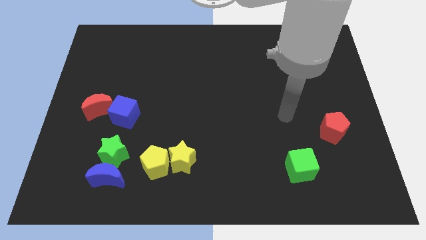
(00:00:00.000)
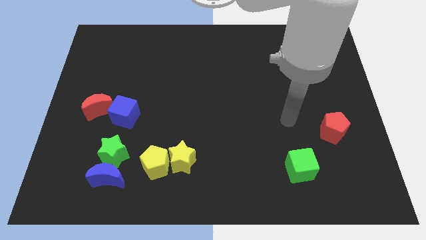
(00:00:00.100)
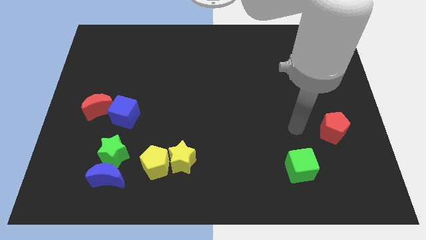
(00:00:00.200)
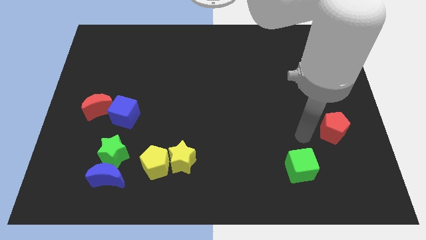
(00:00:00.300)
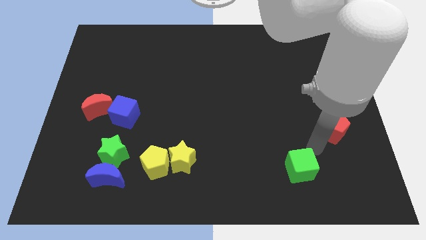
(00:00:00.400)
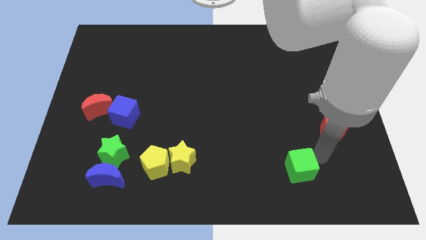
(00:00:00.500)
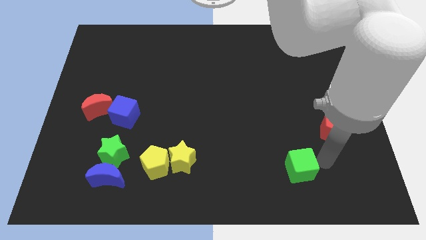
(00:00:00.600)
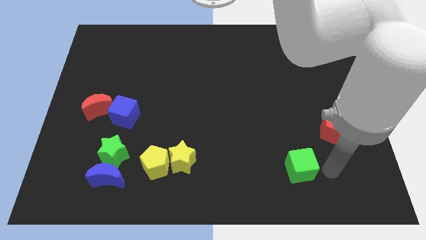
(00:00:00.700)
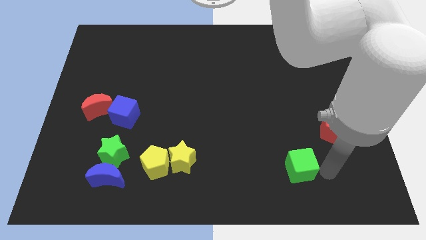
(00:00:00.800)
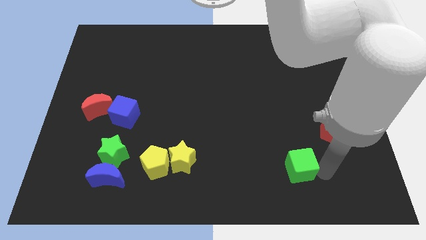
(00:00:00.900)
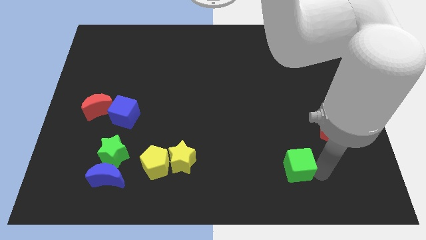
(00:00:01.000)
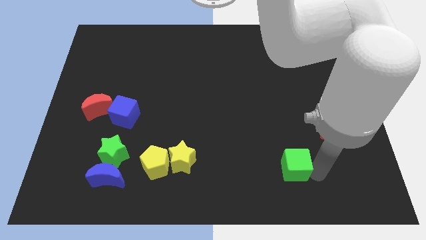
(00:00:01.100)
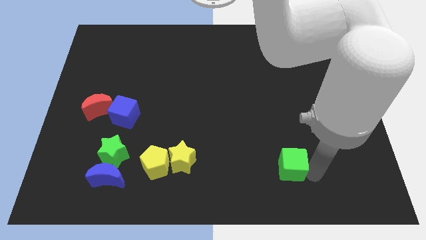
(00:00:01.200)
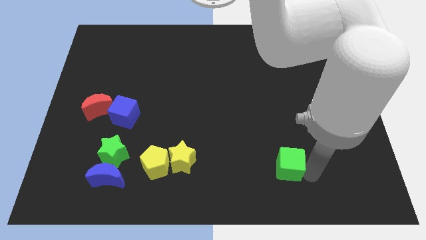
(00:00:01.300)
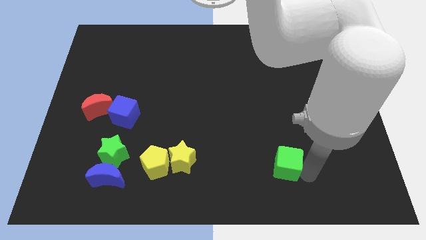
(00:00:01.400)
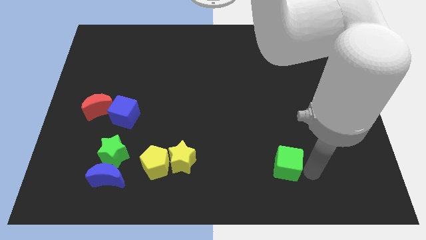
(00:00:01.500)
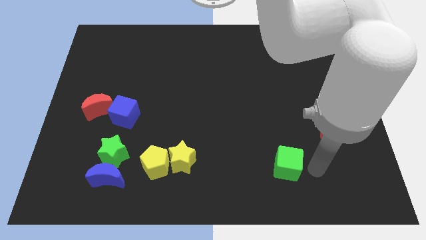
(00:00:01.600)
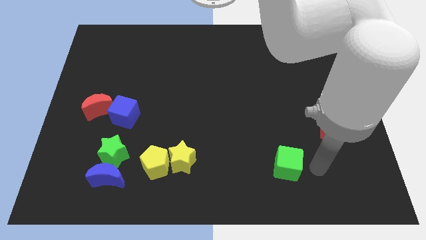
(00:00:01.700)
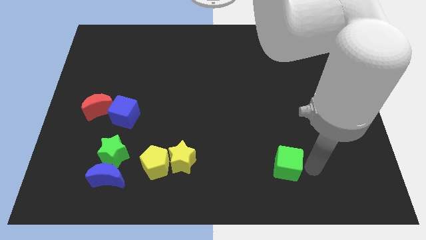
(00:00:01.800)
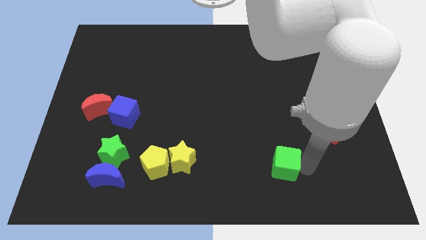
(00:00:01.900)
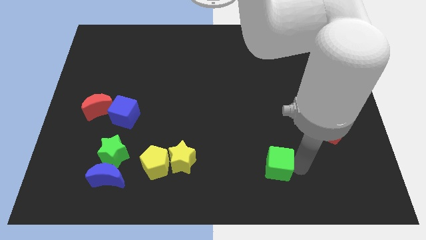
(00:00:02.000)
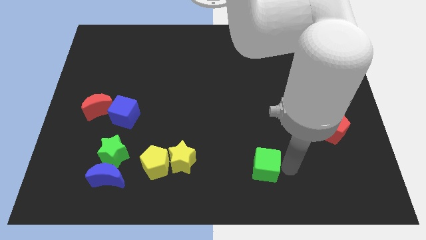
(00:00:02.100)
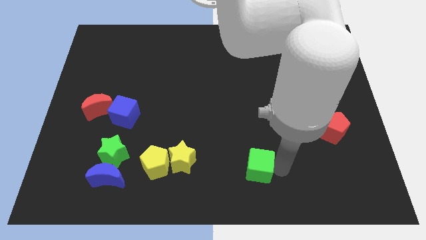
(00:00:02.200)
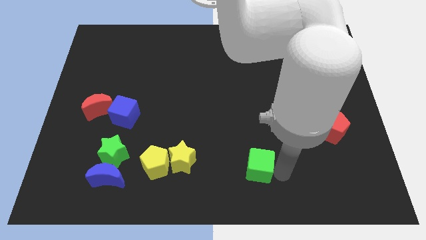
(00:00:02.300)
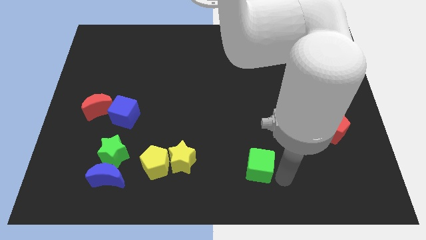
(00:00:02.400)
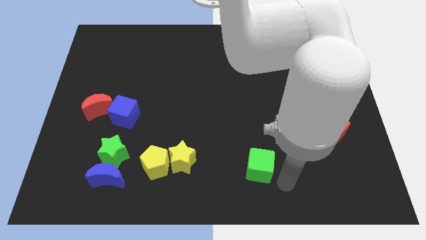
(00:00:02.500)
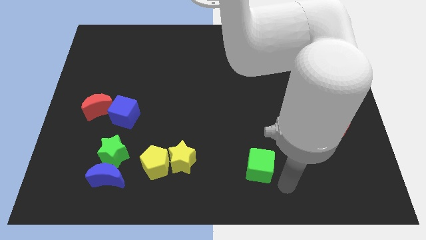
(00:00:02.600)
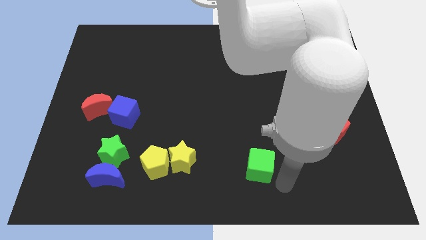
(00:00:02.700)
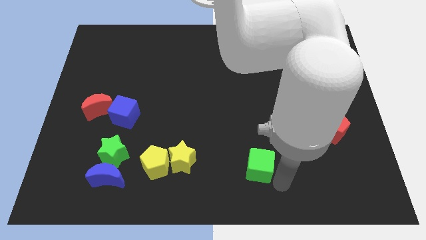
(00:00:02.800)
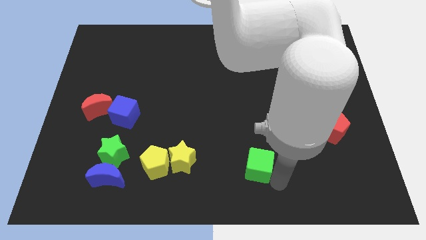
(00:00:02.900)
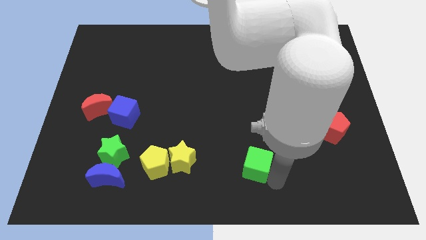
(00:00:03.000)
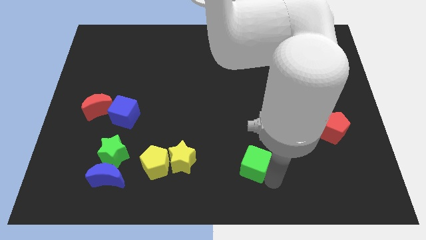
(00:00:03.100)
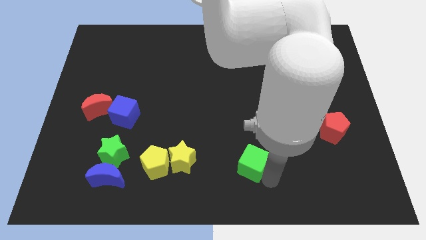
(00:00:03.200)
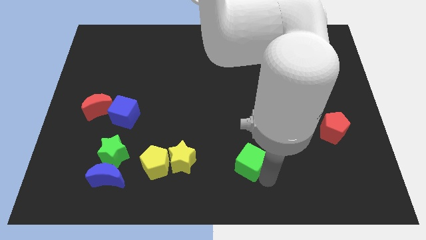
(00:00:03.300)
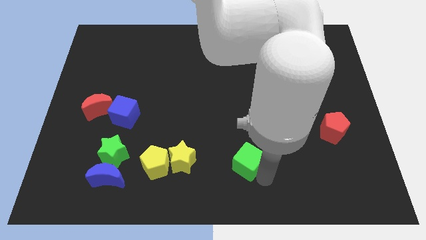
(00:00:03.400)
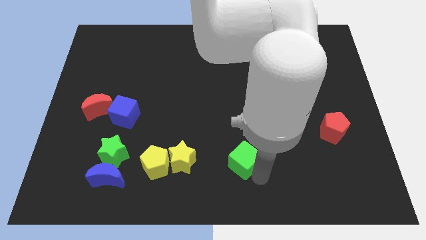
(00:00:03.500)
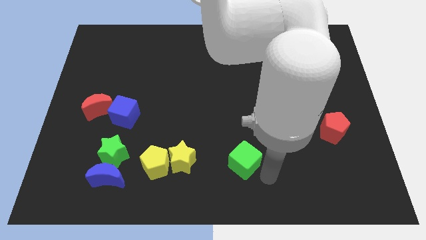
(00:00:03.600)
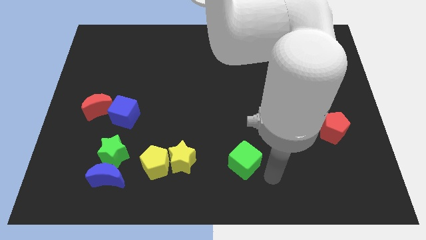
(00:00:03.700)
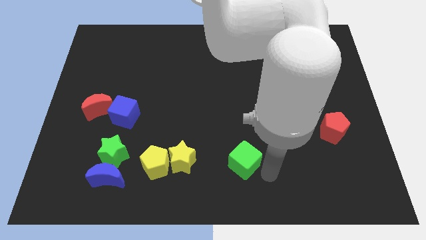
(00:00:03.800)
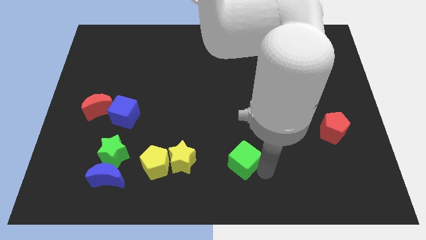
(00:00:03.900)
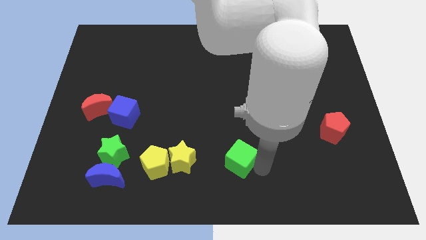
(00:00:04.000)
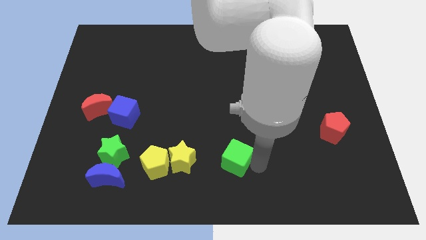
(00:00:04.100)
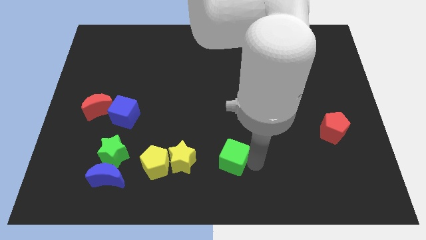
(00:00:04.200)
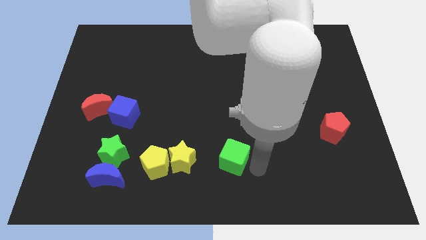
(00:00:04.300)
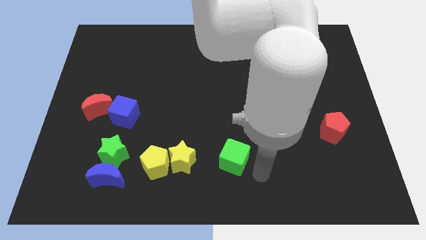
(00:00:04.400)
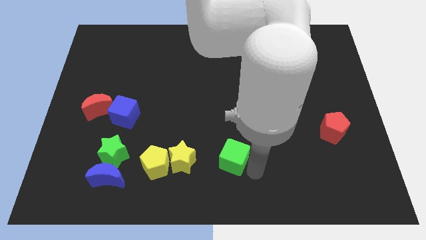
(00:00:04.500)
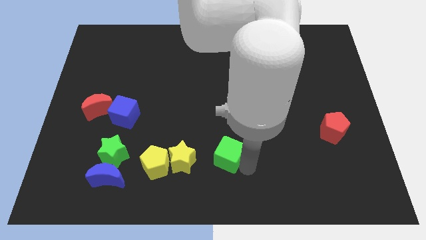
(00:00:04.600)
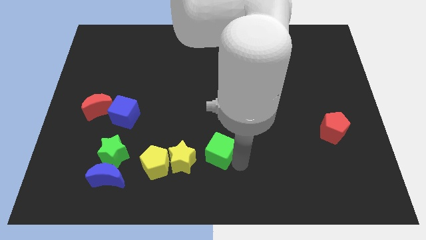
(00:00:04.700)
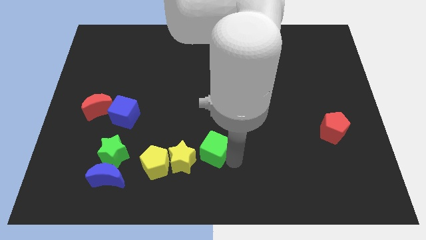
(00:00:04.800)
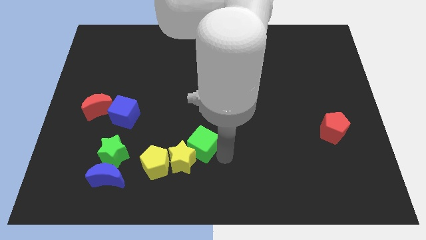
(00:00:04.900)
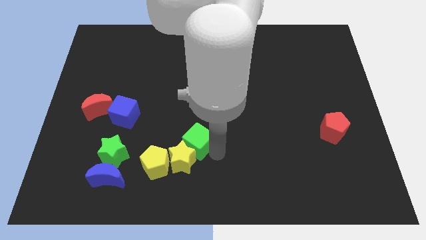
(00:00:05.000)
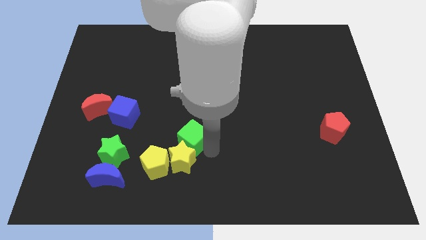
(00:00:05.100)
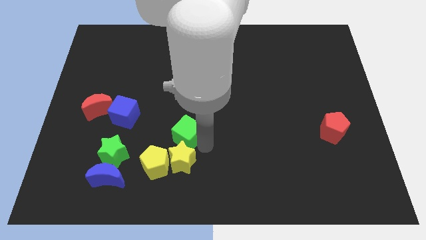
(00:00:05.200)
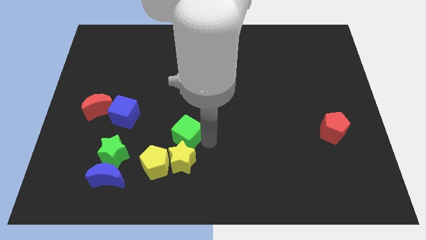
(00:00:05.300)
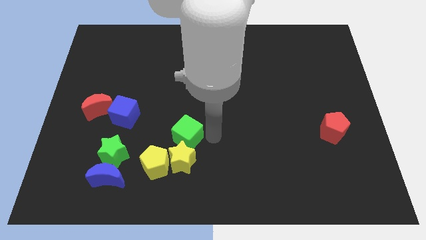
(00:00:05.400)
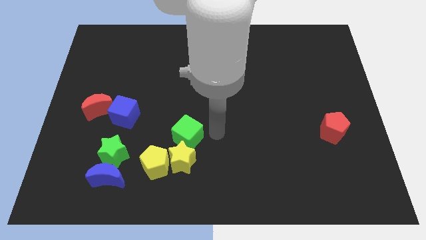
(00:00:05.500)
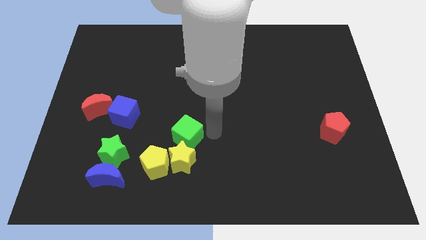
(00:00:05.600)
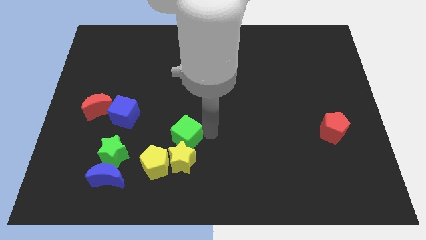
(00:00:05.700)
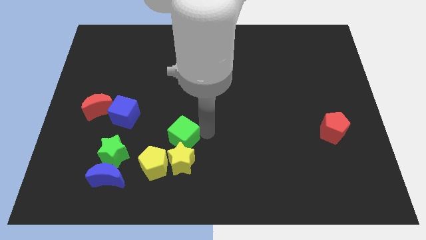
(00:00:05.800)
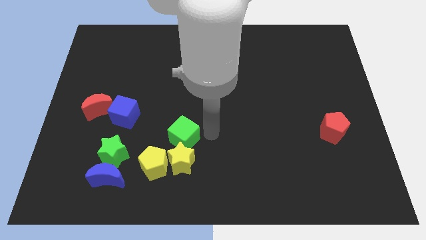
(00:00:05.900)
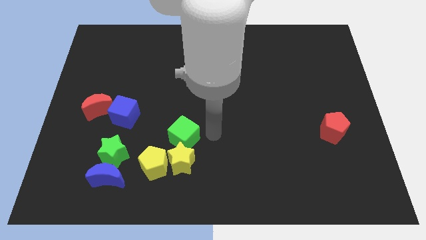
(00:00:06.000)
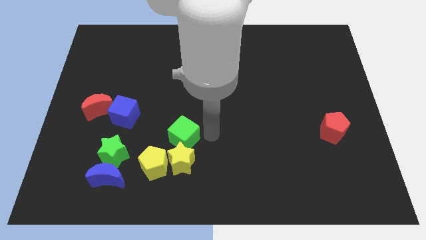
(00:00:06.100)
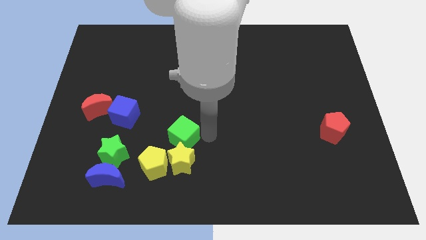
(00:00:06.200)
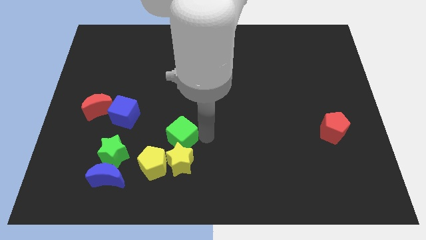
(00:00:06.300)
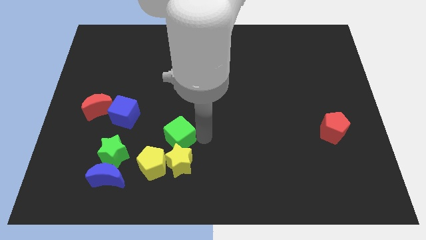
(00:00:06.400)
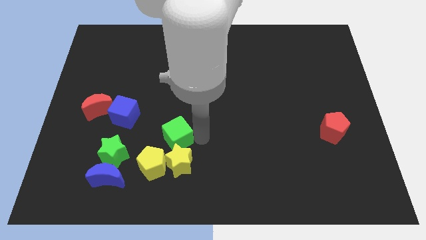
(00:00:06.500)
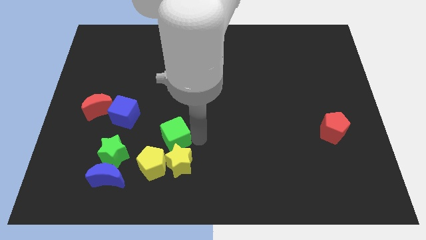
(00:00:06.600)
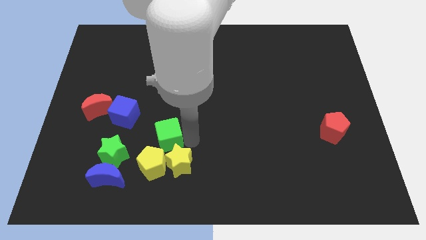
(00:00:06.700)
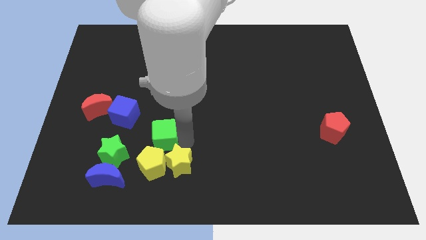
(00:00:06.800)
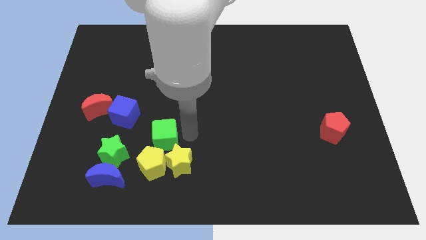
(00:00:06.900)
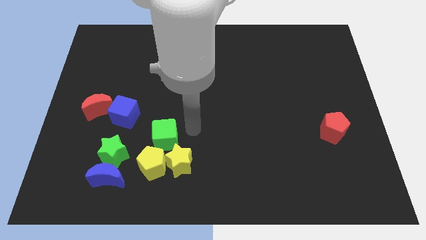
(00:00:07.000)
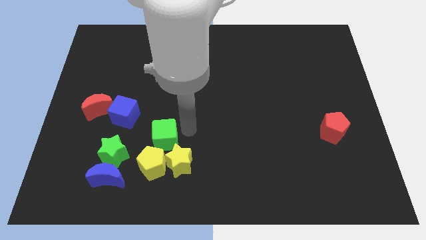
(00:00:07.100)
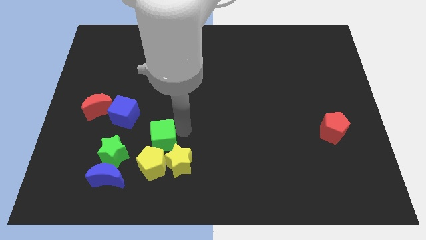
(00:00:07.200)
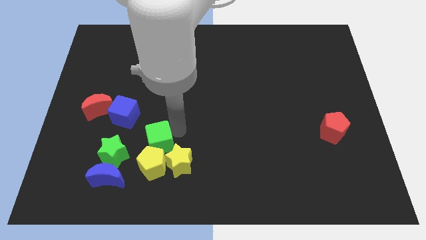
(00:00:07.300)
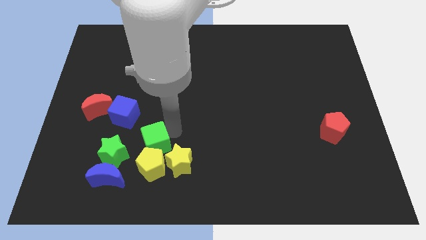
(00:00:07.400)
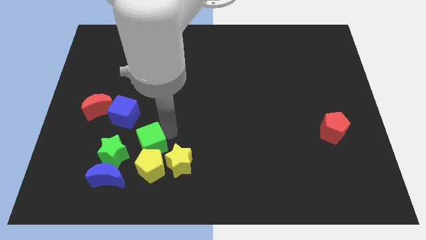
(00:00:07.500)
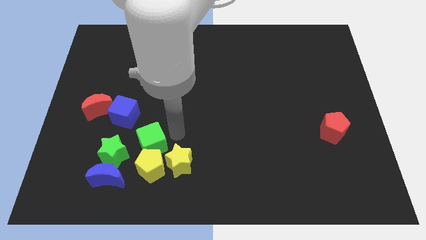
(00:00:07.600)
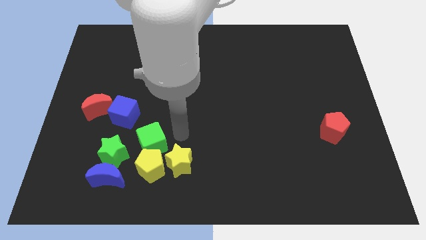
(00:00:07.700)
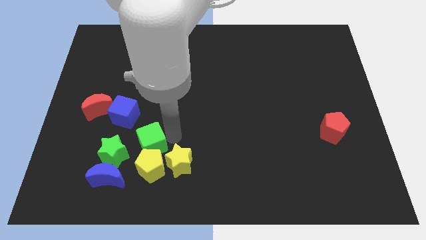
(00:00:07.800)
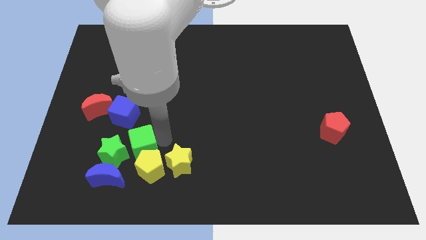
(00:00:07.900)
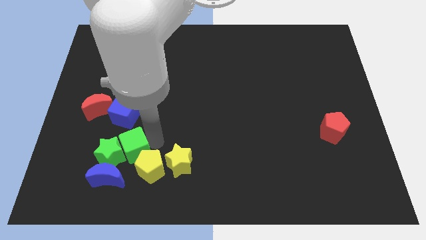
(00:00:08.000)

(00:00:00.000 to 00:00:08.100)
move the green cube close to the green star
